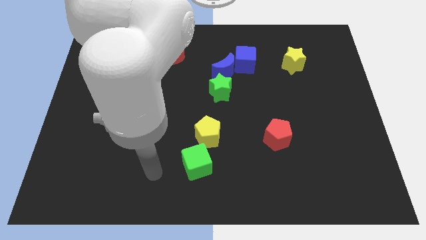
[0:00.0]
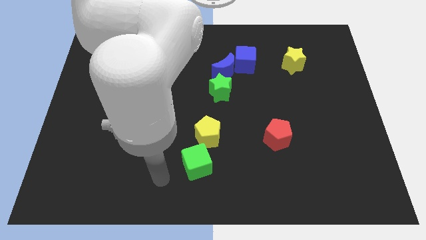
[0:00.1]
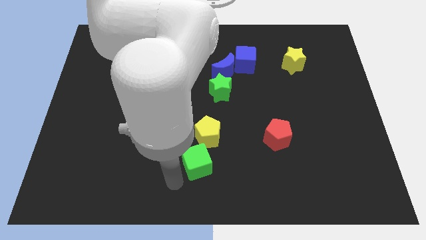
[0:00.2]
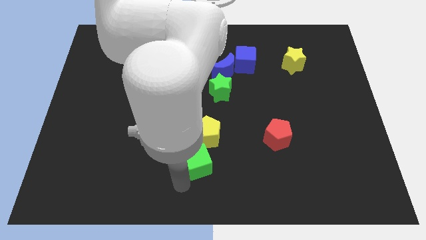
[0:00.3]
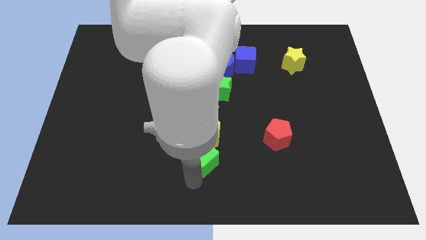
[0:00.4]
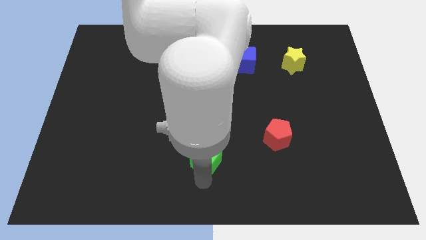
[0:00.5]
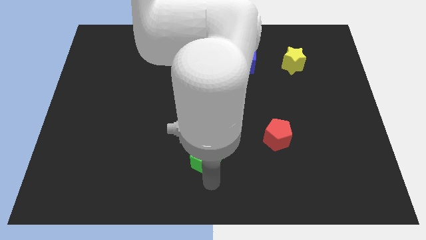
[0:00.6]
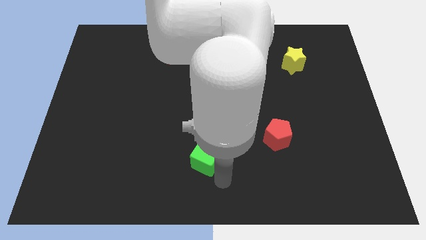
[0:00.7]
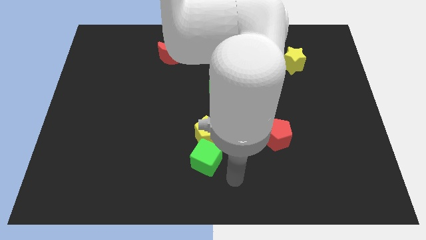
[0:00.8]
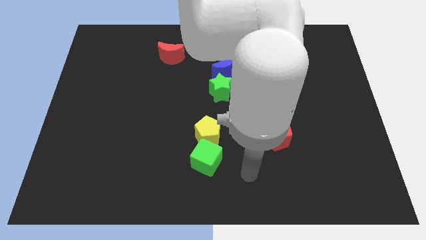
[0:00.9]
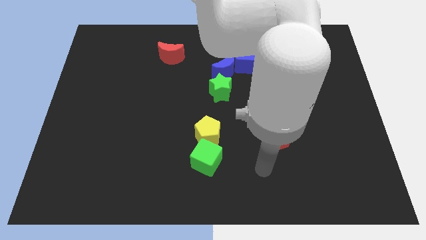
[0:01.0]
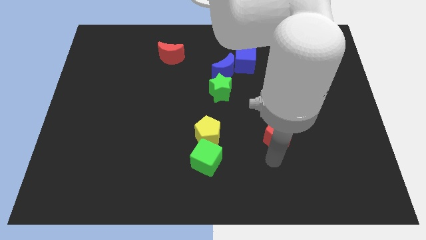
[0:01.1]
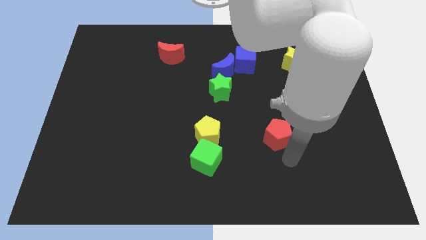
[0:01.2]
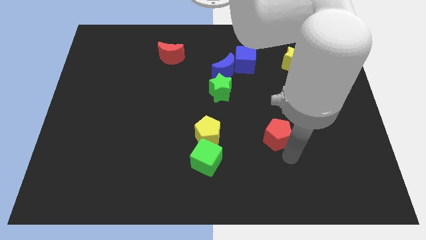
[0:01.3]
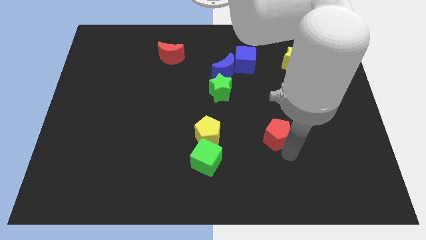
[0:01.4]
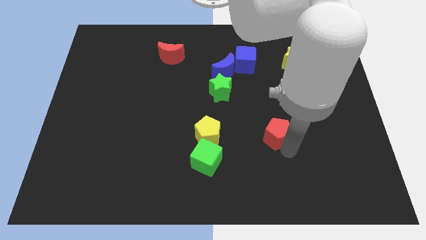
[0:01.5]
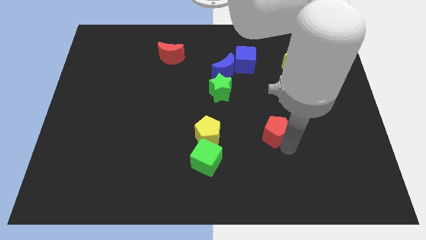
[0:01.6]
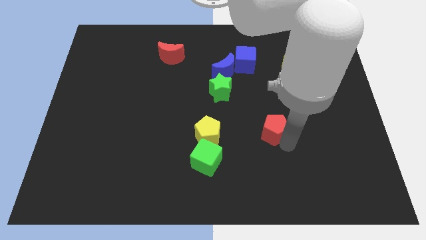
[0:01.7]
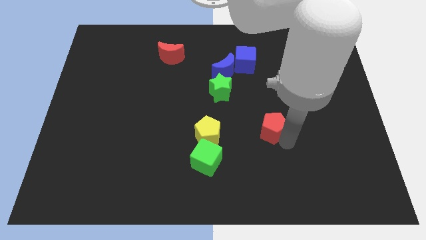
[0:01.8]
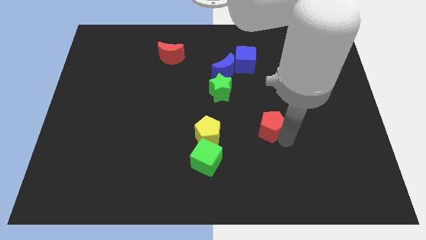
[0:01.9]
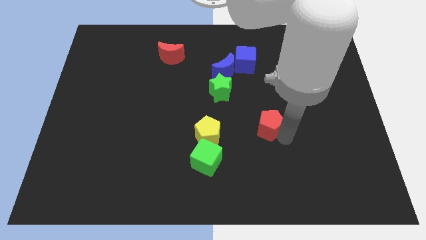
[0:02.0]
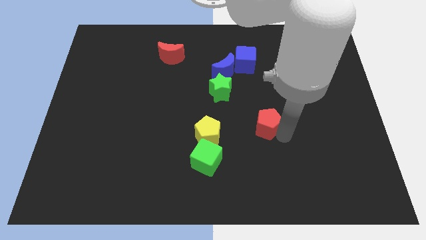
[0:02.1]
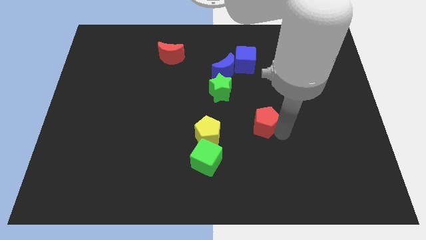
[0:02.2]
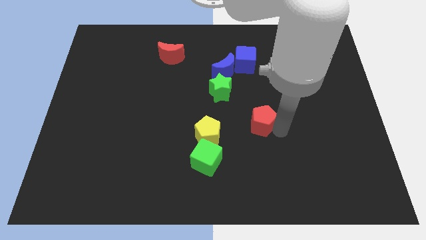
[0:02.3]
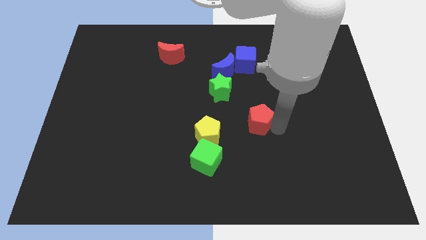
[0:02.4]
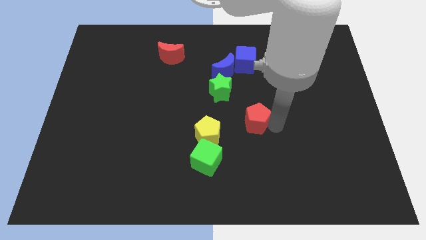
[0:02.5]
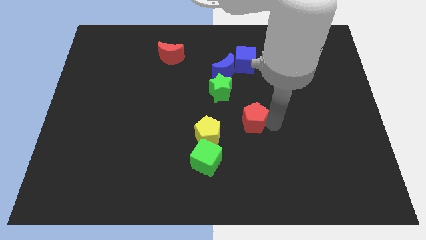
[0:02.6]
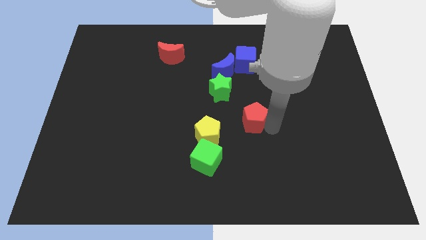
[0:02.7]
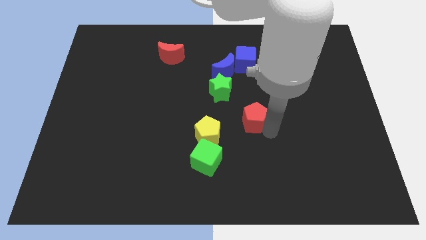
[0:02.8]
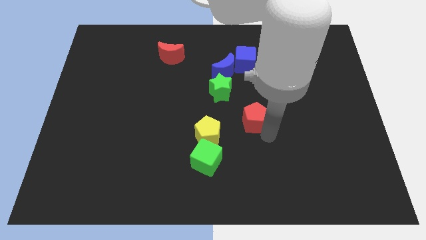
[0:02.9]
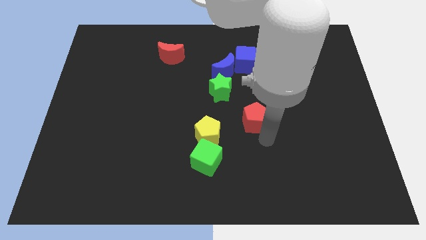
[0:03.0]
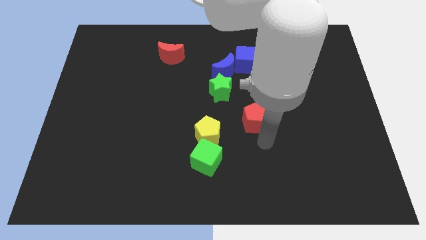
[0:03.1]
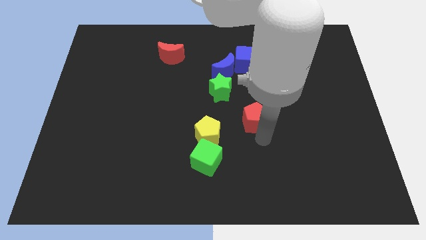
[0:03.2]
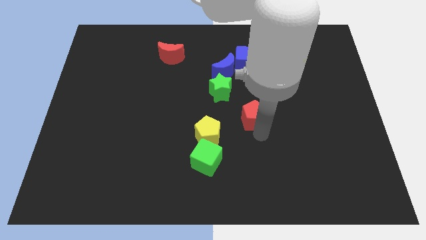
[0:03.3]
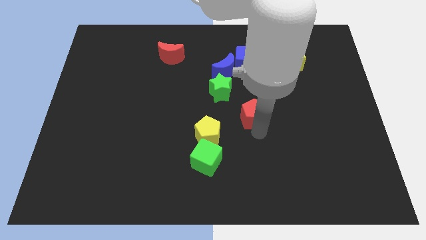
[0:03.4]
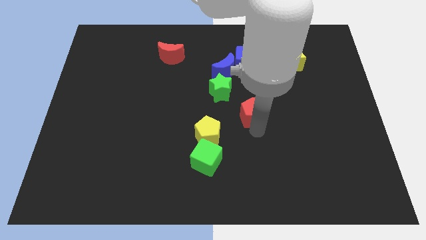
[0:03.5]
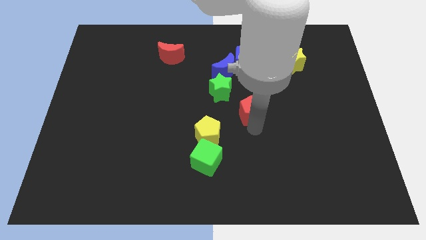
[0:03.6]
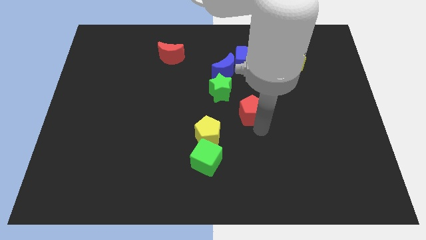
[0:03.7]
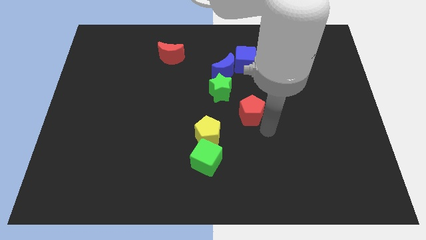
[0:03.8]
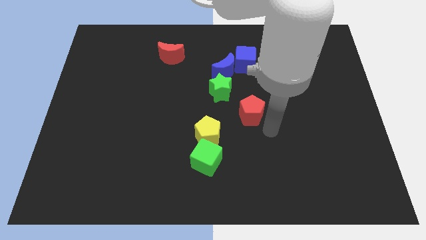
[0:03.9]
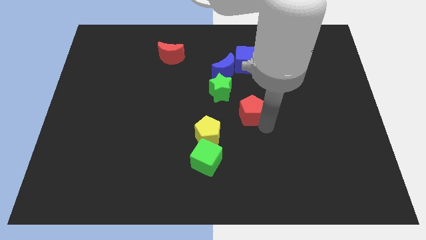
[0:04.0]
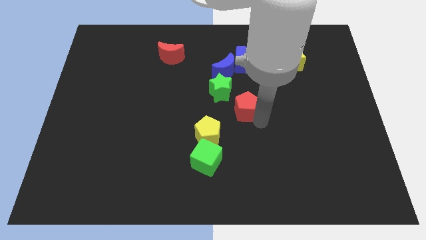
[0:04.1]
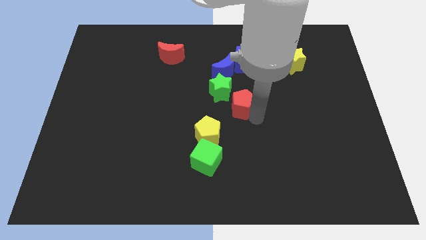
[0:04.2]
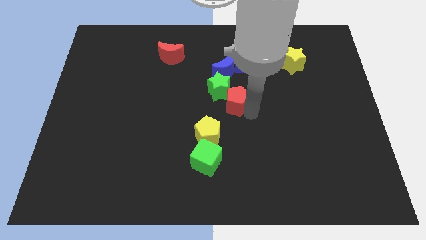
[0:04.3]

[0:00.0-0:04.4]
put the red pentagon to the green star

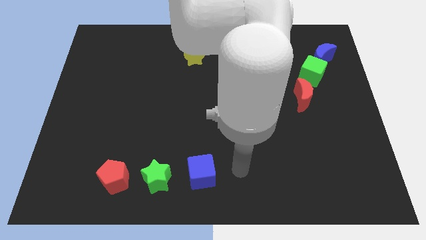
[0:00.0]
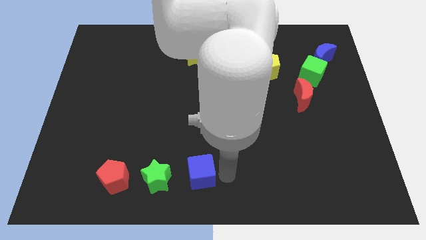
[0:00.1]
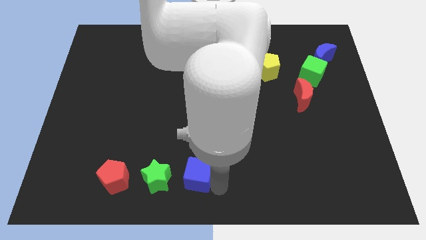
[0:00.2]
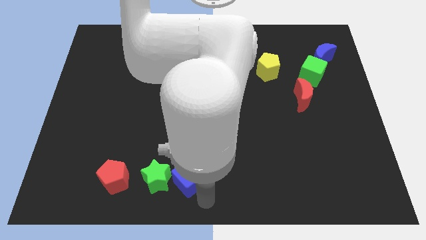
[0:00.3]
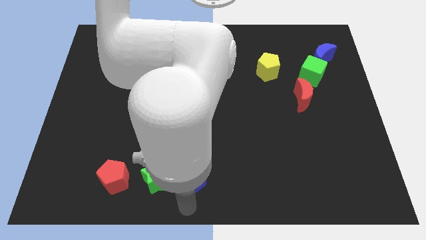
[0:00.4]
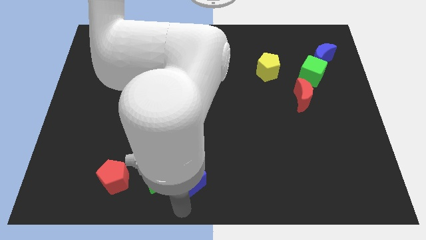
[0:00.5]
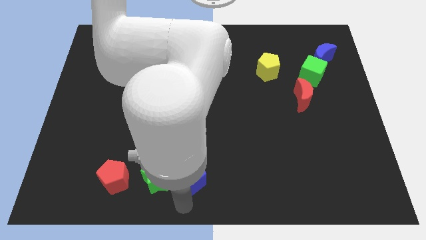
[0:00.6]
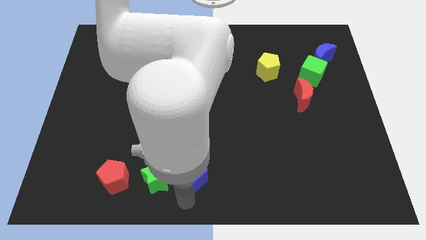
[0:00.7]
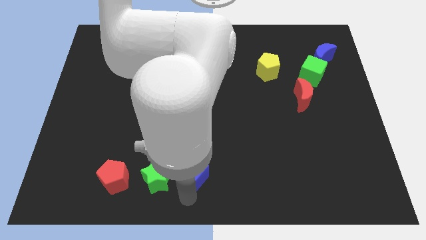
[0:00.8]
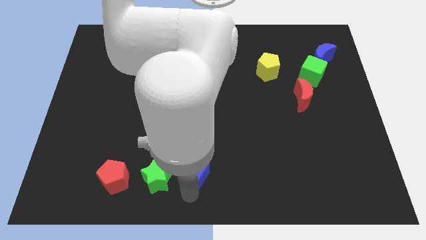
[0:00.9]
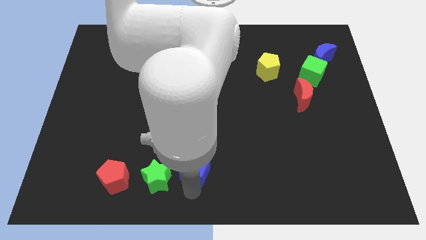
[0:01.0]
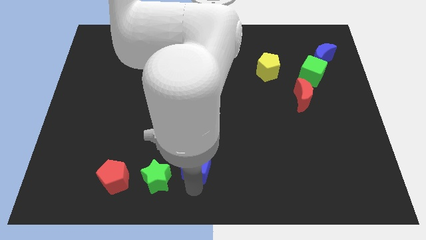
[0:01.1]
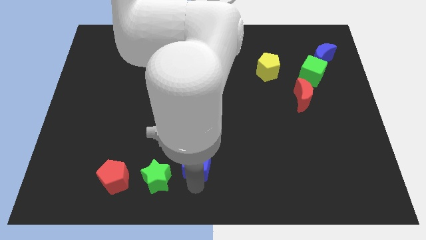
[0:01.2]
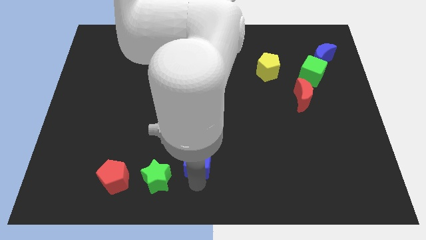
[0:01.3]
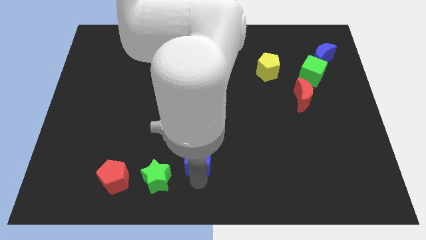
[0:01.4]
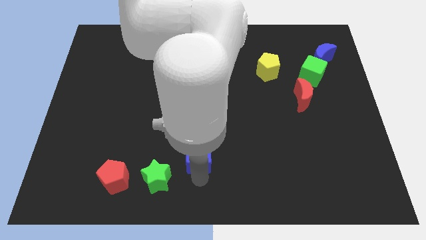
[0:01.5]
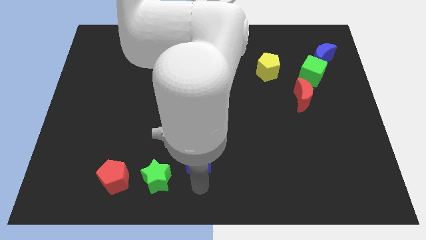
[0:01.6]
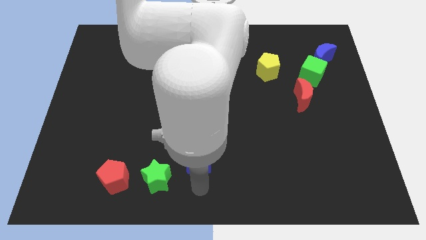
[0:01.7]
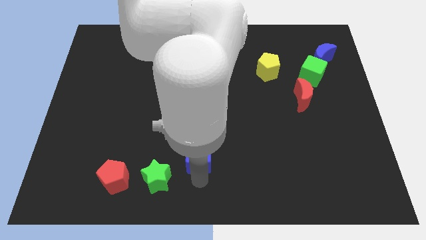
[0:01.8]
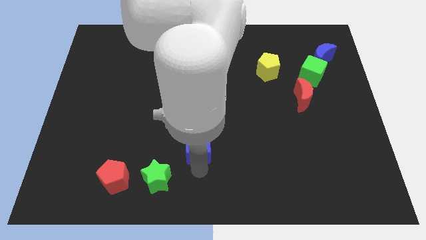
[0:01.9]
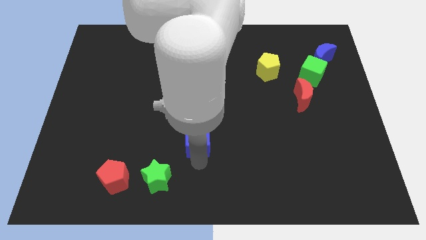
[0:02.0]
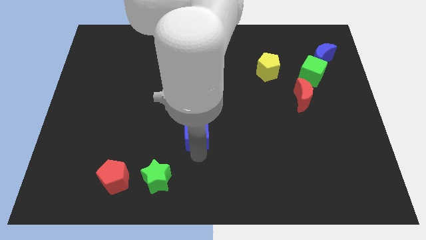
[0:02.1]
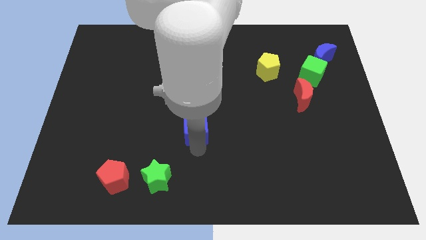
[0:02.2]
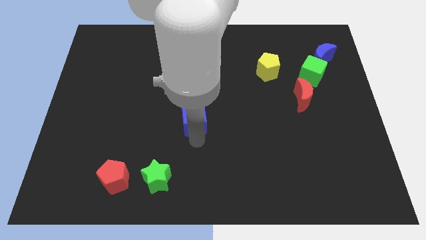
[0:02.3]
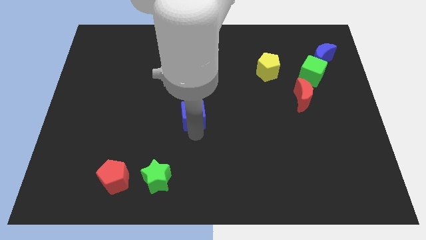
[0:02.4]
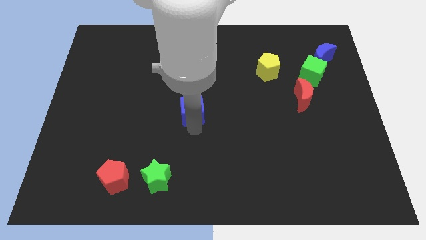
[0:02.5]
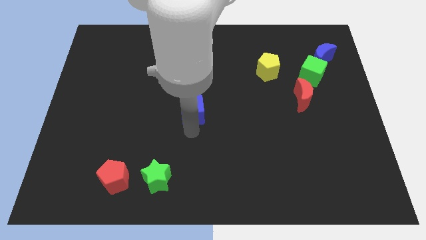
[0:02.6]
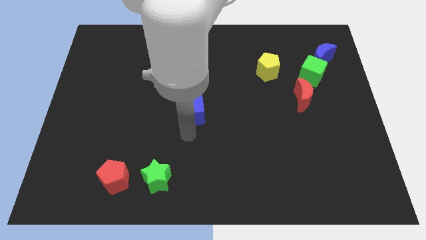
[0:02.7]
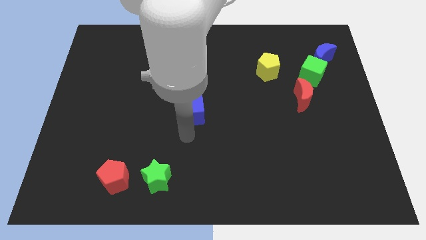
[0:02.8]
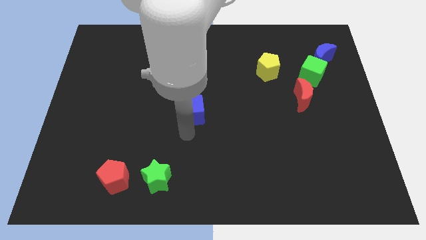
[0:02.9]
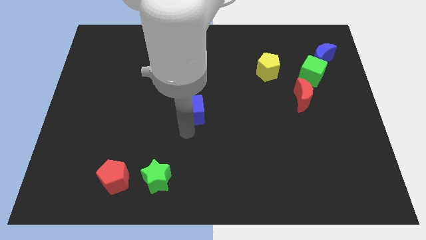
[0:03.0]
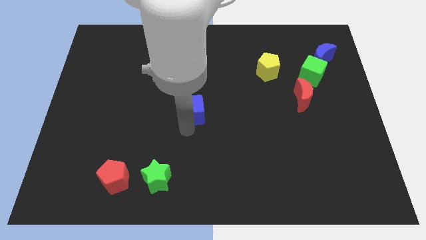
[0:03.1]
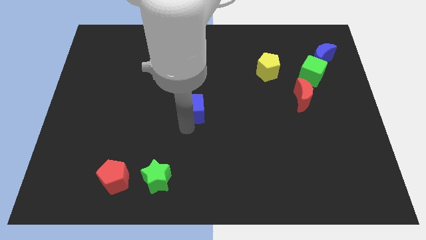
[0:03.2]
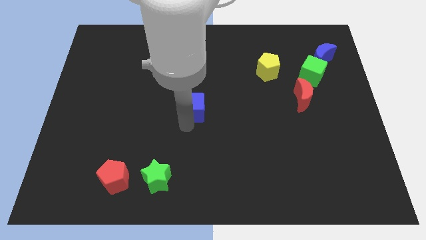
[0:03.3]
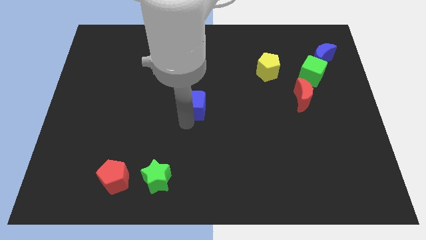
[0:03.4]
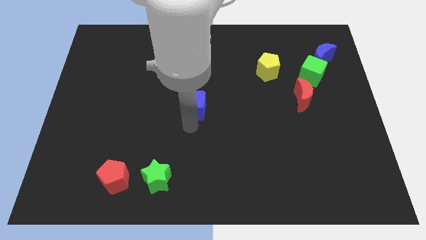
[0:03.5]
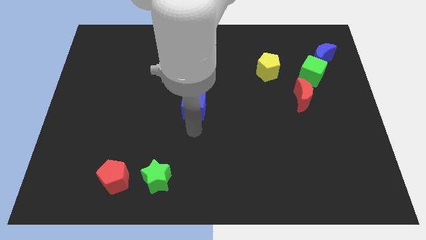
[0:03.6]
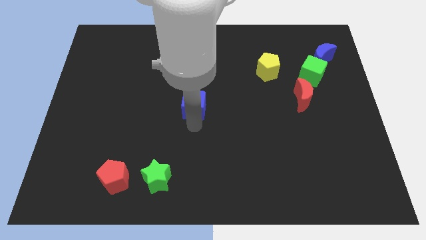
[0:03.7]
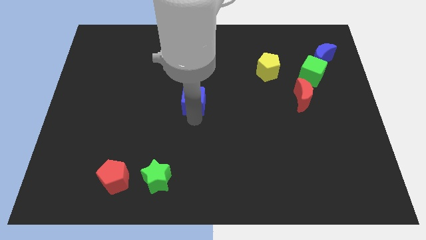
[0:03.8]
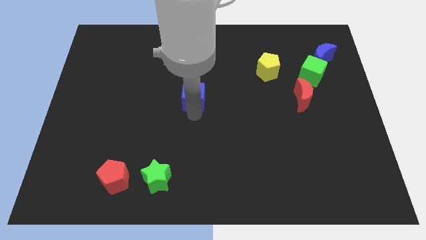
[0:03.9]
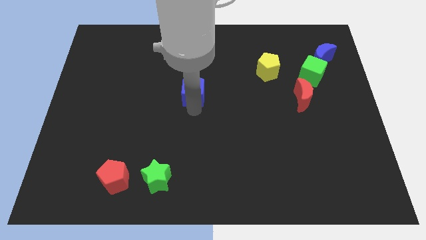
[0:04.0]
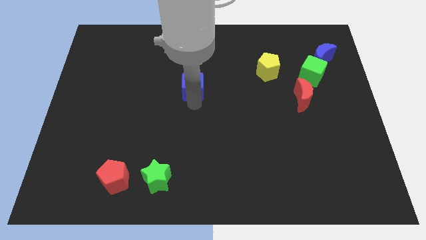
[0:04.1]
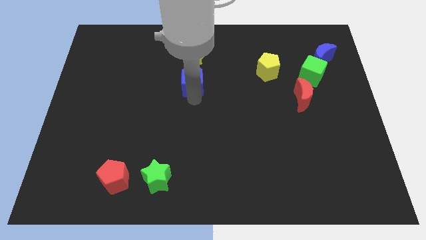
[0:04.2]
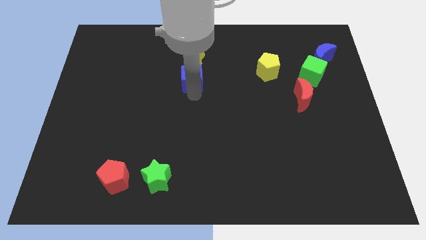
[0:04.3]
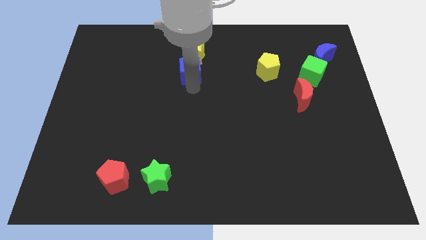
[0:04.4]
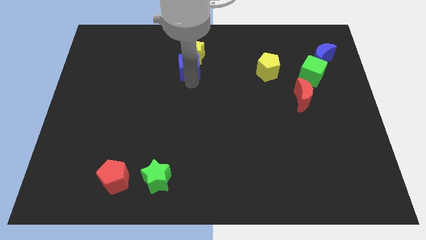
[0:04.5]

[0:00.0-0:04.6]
push the blue cube close to the yellow star
